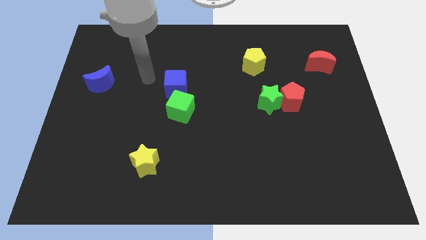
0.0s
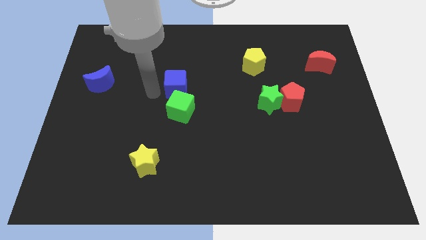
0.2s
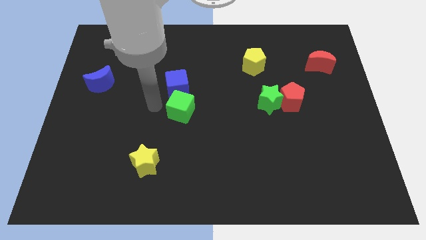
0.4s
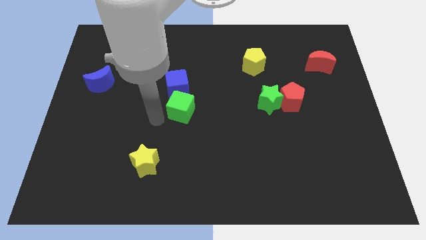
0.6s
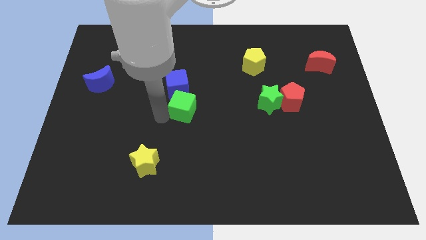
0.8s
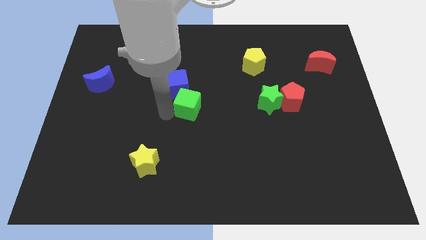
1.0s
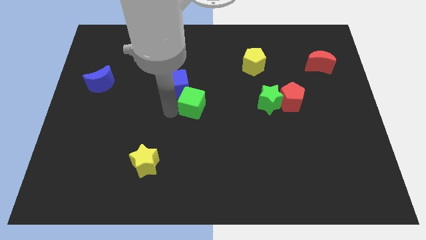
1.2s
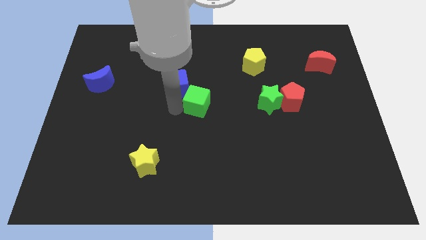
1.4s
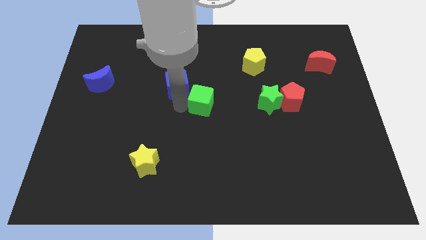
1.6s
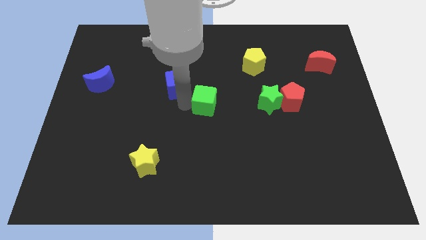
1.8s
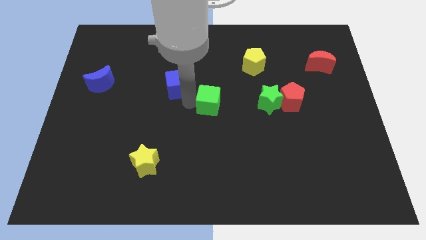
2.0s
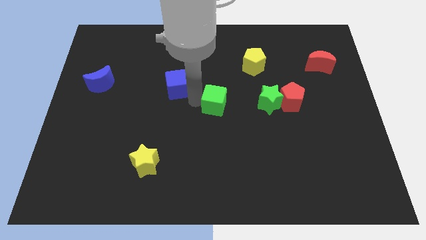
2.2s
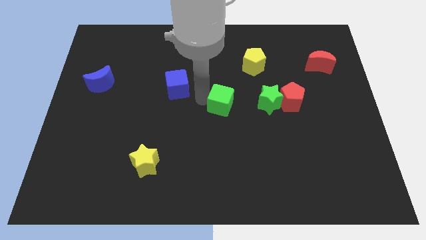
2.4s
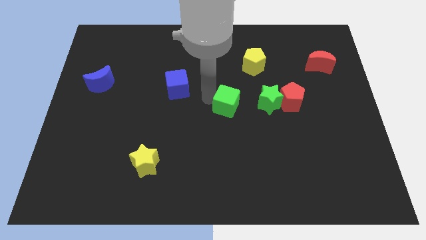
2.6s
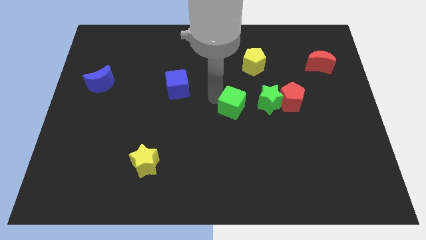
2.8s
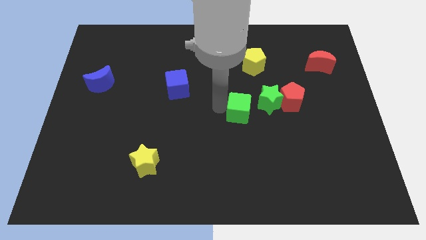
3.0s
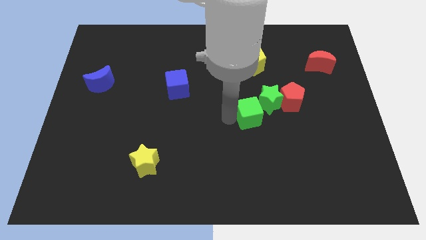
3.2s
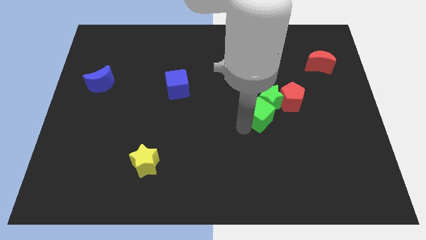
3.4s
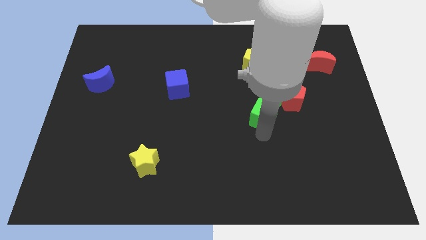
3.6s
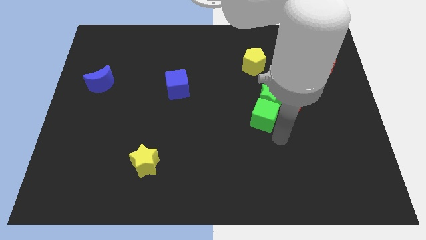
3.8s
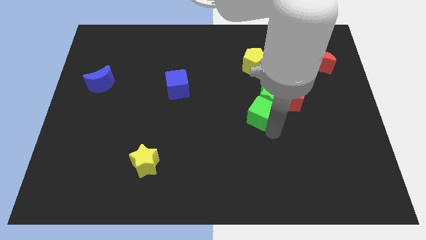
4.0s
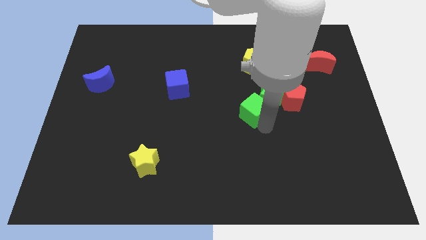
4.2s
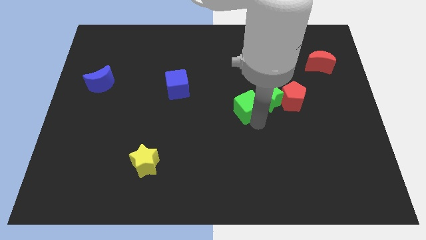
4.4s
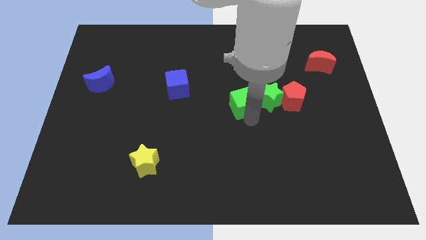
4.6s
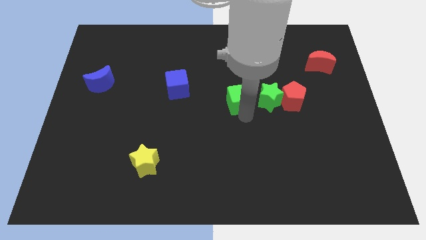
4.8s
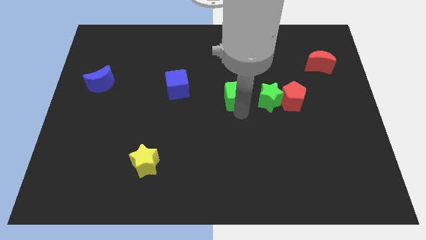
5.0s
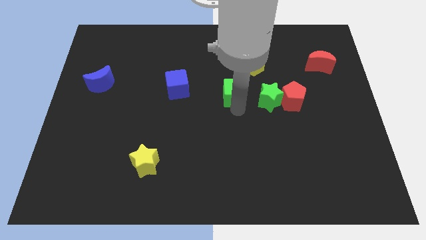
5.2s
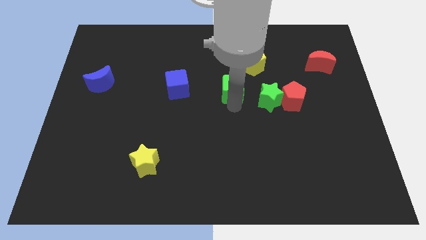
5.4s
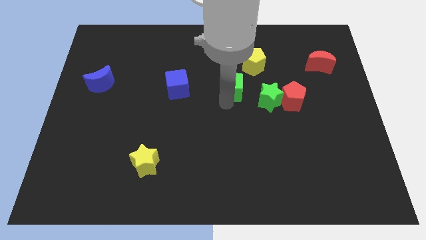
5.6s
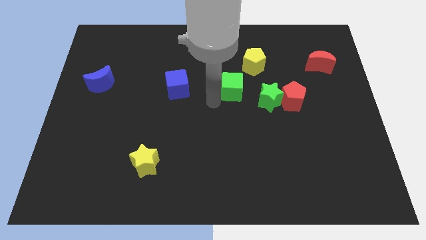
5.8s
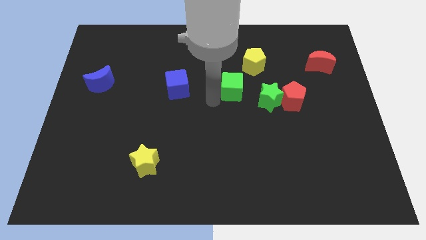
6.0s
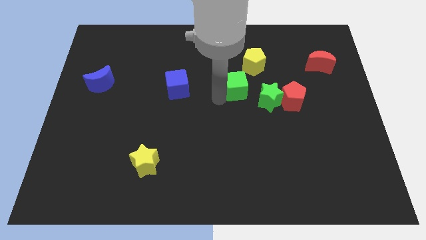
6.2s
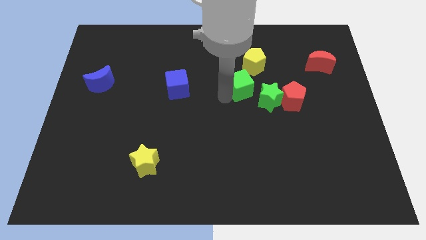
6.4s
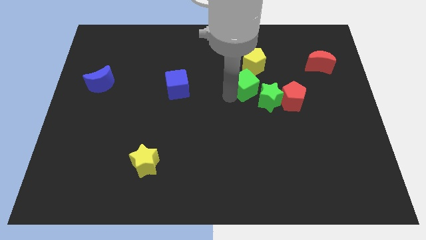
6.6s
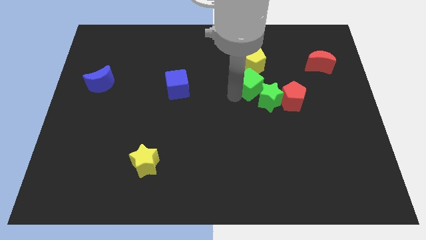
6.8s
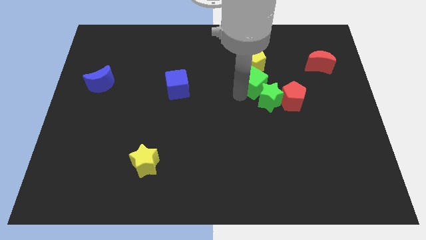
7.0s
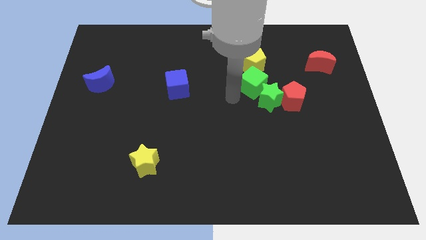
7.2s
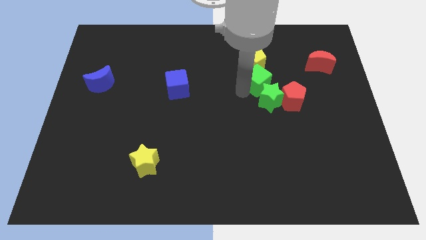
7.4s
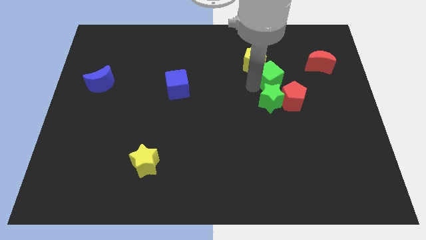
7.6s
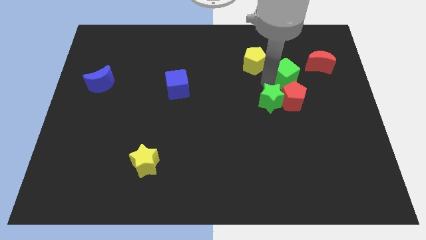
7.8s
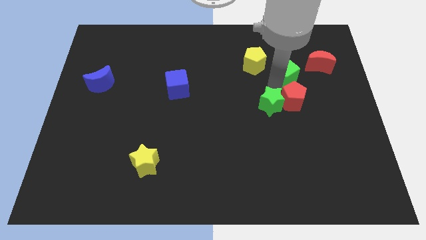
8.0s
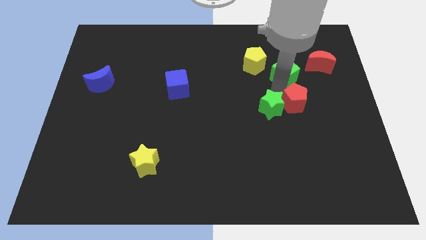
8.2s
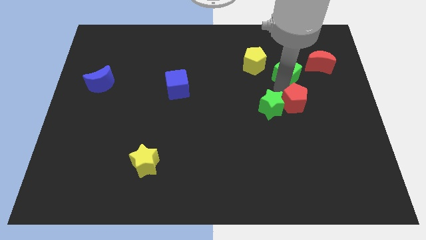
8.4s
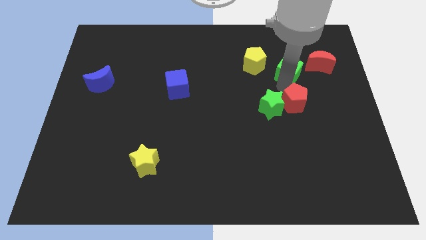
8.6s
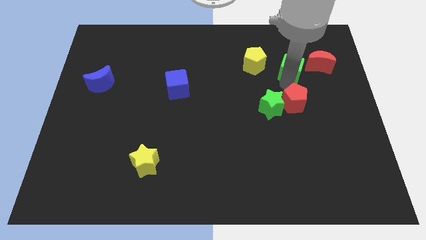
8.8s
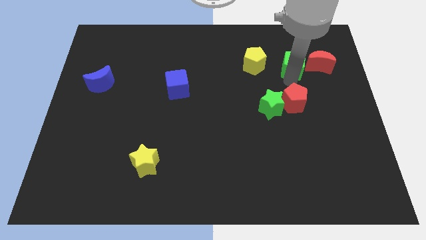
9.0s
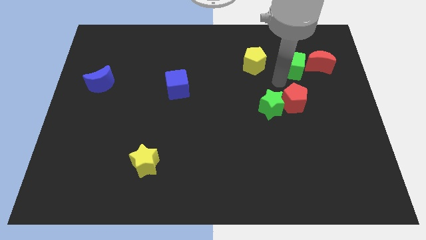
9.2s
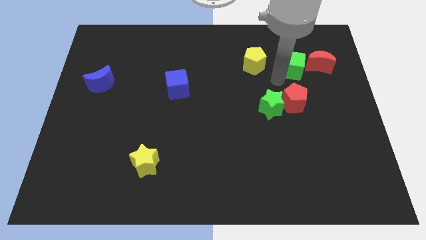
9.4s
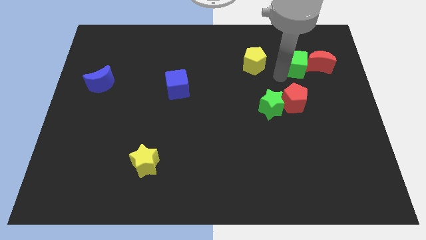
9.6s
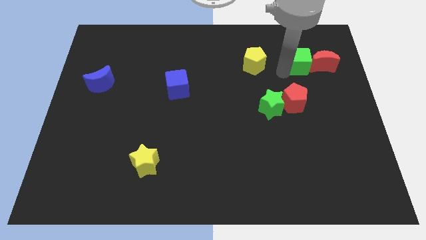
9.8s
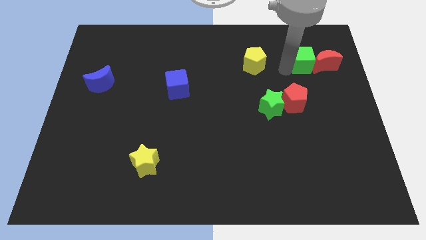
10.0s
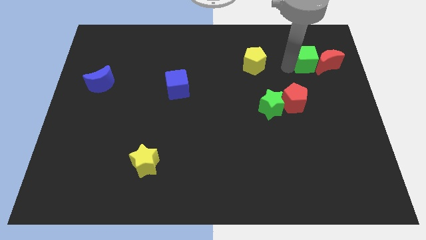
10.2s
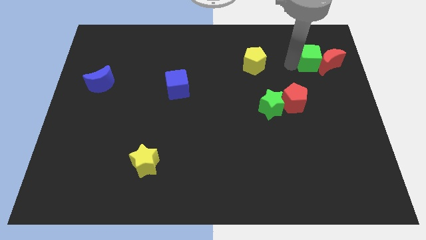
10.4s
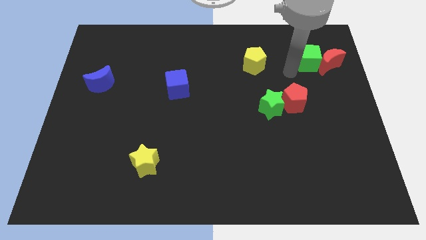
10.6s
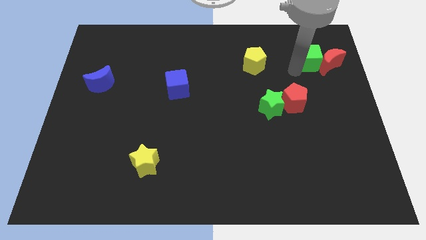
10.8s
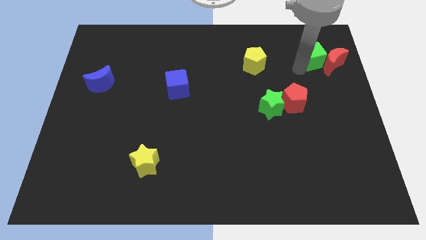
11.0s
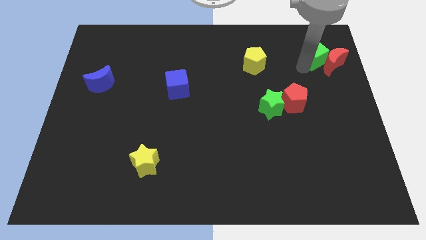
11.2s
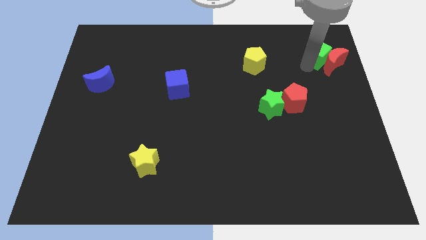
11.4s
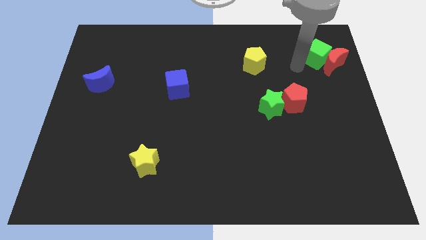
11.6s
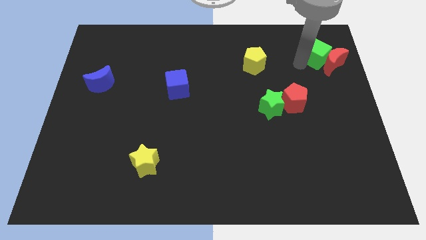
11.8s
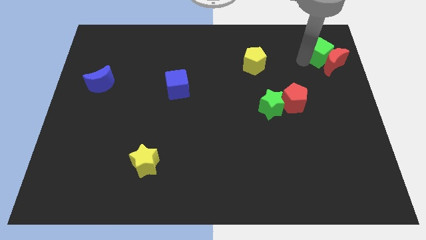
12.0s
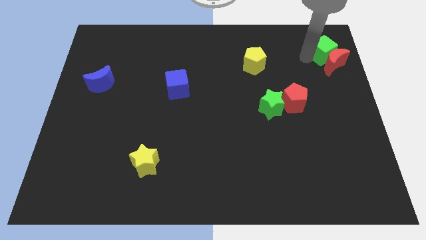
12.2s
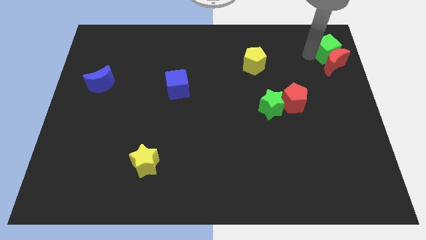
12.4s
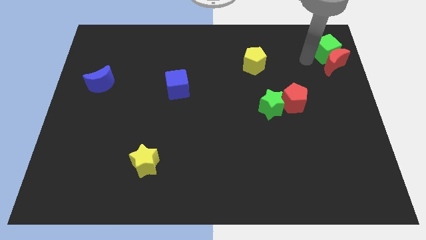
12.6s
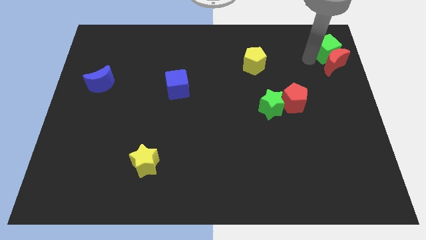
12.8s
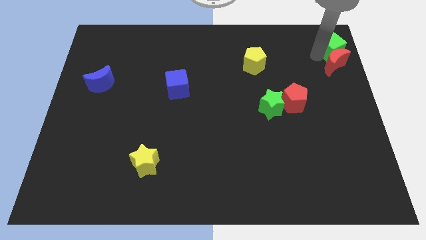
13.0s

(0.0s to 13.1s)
slide the green cube to the top right

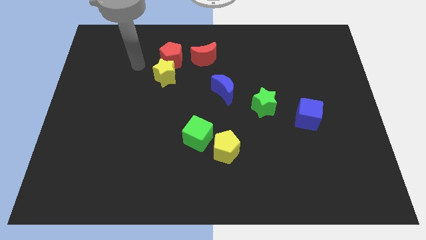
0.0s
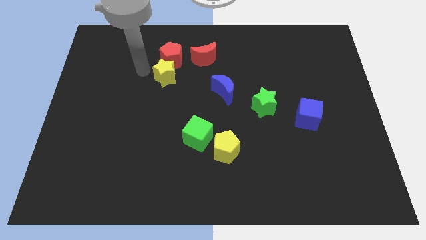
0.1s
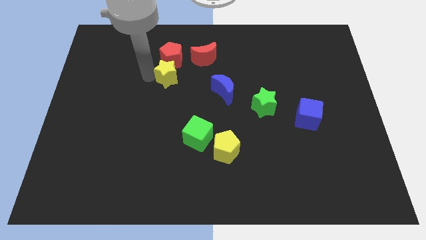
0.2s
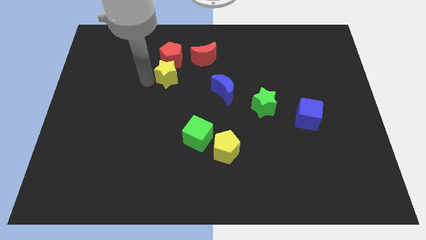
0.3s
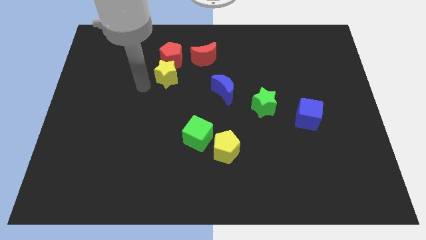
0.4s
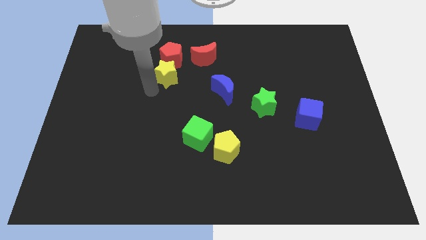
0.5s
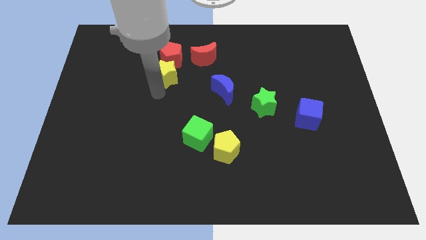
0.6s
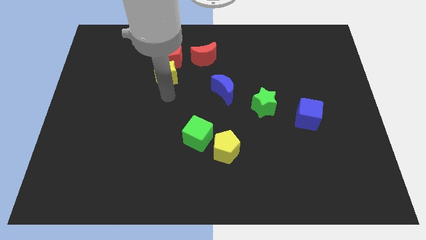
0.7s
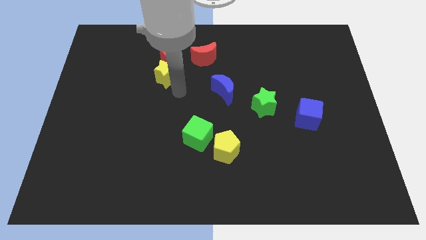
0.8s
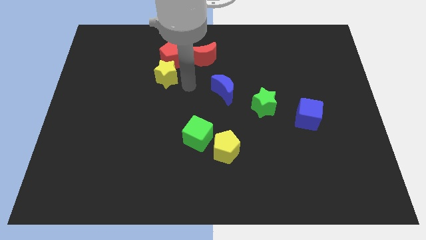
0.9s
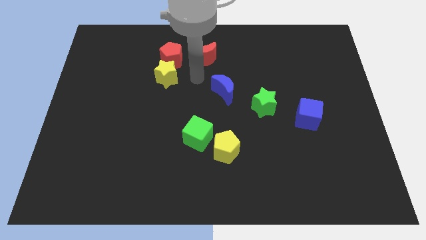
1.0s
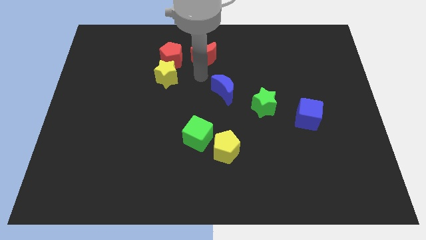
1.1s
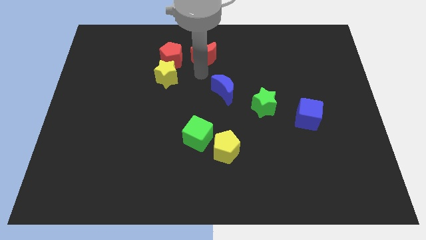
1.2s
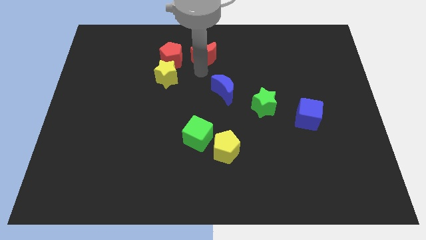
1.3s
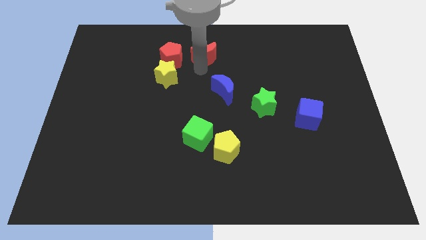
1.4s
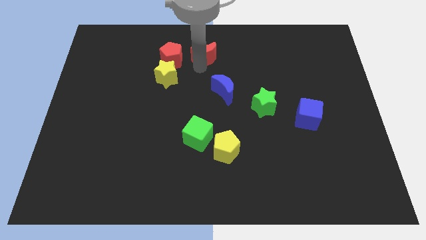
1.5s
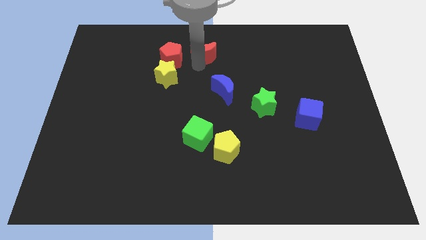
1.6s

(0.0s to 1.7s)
push the red moon to the top
